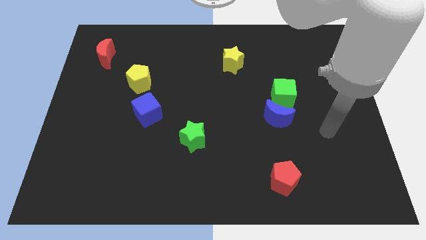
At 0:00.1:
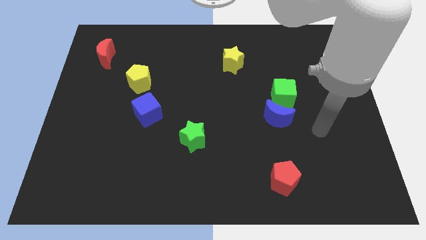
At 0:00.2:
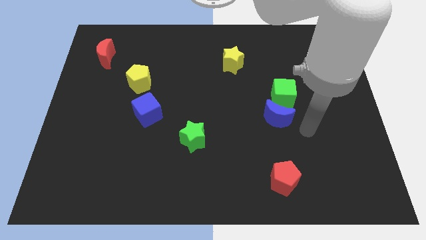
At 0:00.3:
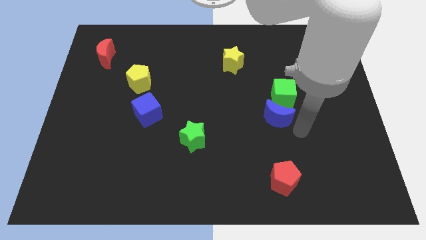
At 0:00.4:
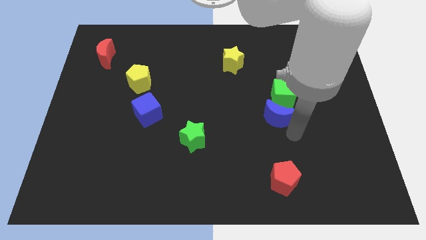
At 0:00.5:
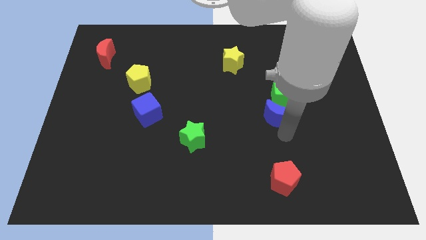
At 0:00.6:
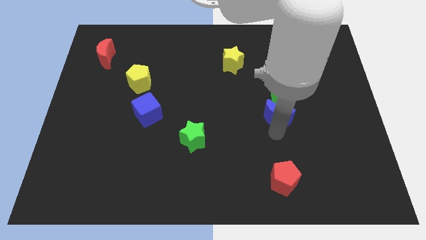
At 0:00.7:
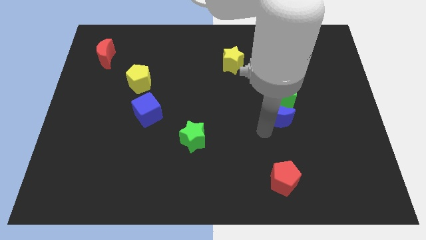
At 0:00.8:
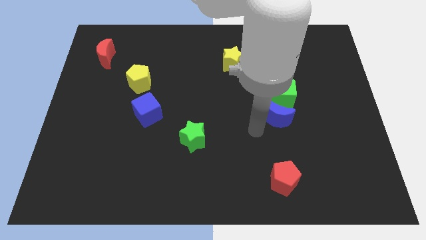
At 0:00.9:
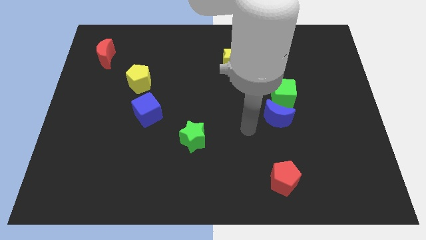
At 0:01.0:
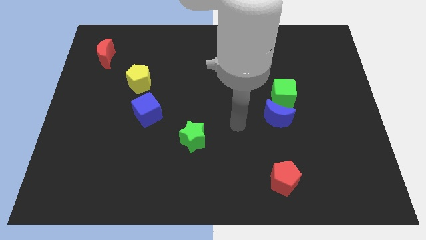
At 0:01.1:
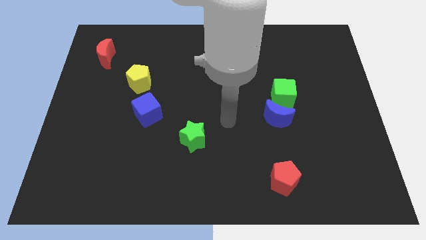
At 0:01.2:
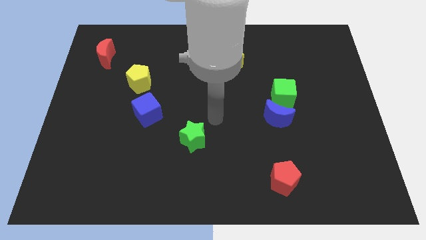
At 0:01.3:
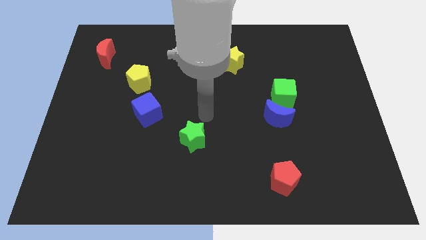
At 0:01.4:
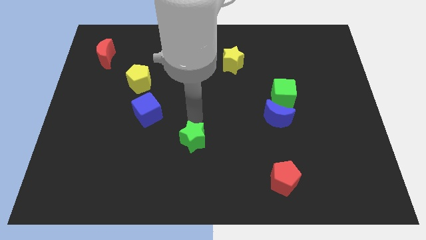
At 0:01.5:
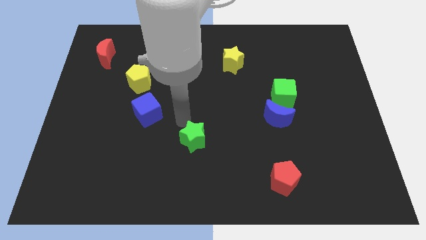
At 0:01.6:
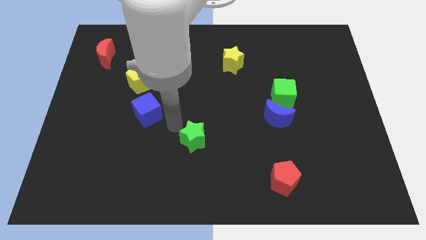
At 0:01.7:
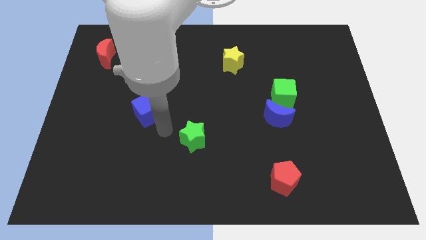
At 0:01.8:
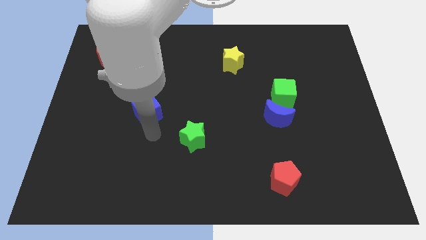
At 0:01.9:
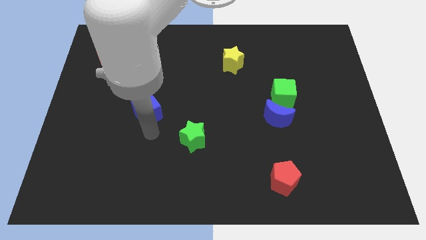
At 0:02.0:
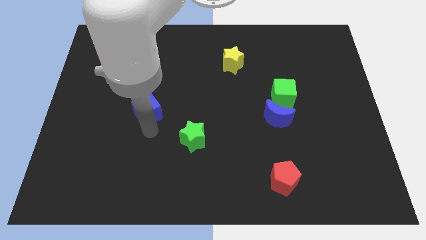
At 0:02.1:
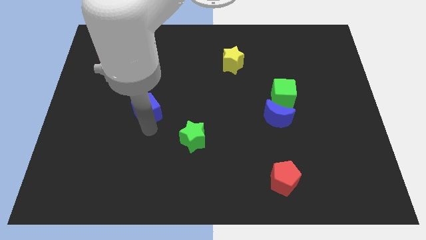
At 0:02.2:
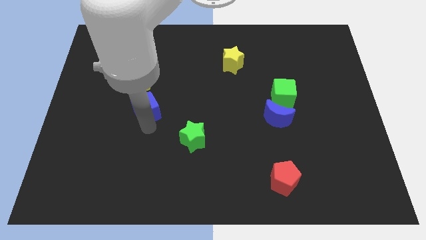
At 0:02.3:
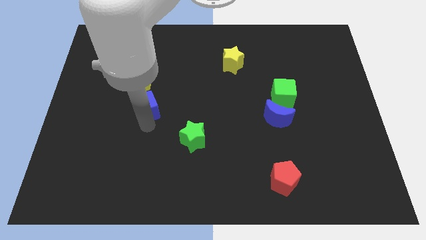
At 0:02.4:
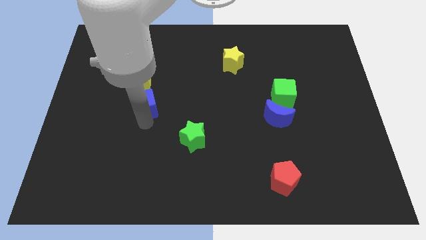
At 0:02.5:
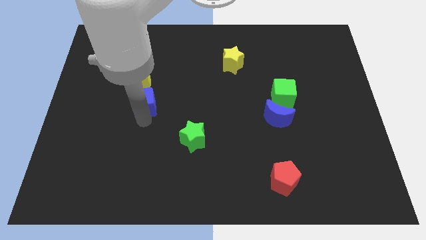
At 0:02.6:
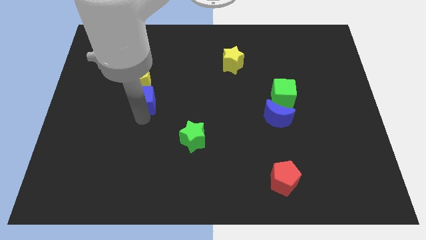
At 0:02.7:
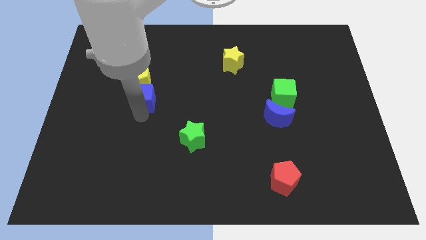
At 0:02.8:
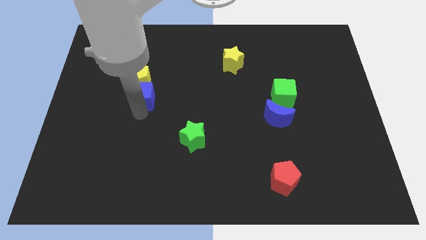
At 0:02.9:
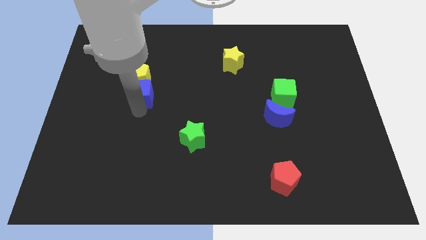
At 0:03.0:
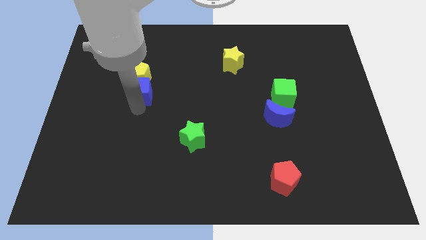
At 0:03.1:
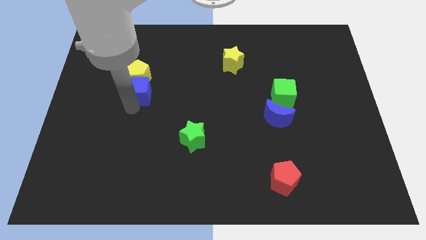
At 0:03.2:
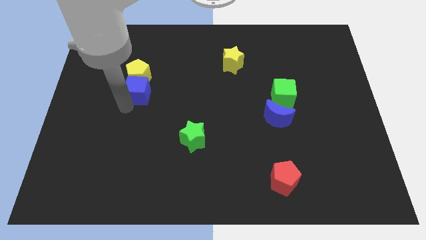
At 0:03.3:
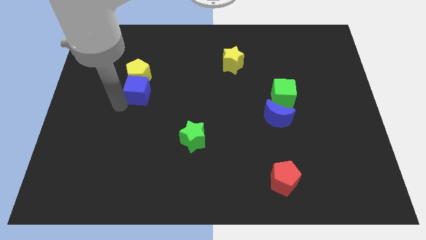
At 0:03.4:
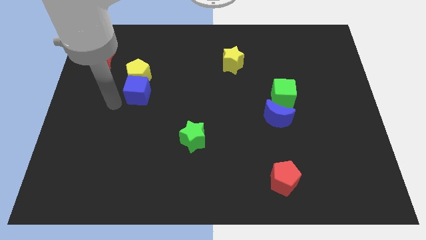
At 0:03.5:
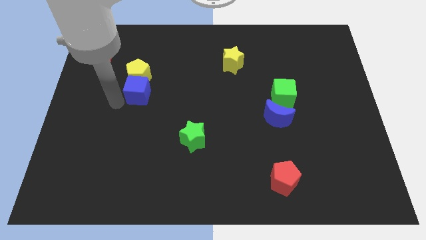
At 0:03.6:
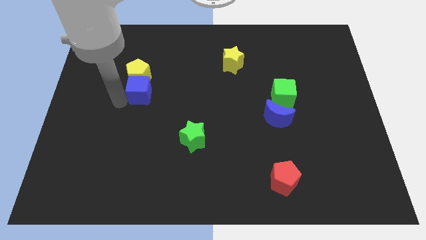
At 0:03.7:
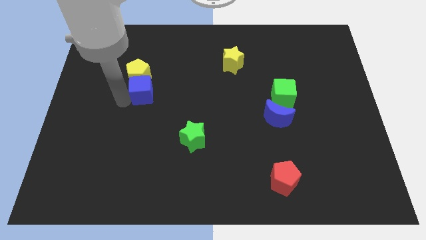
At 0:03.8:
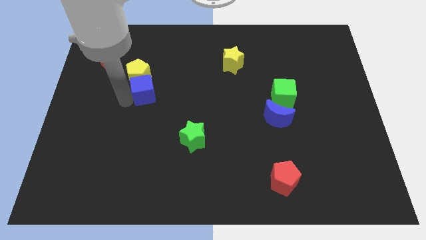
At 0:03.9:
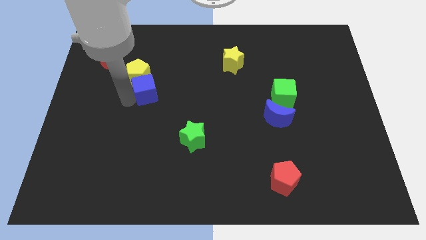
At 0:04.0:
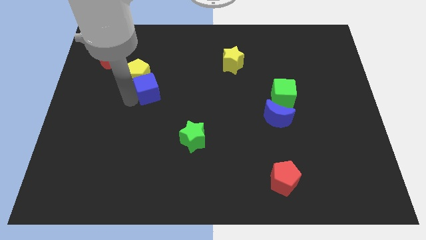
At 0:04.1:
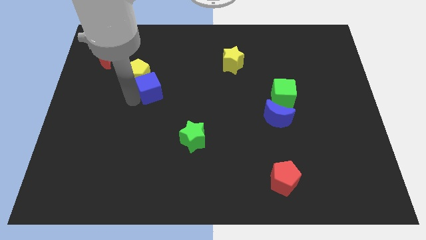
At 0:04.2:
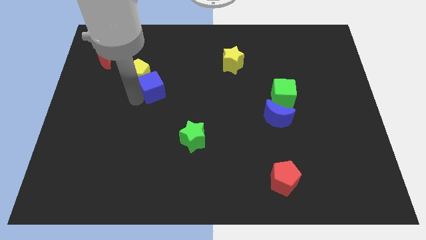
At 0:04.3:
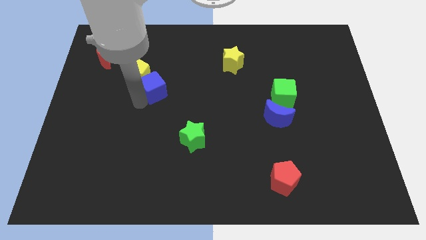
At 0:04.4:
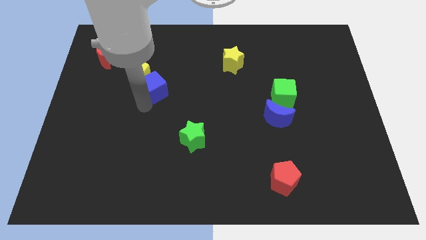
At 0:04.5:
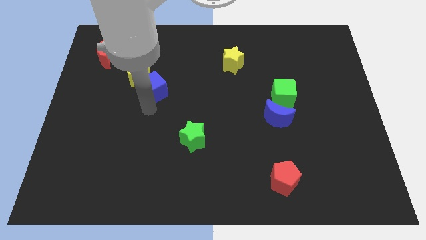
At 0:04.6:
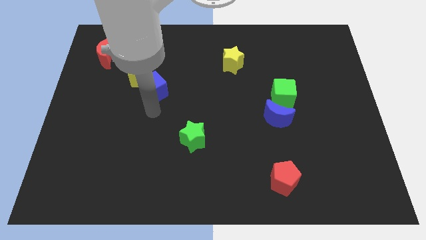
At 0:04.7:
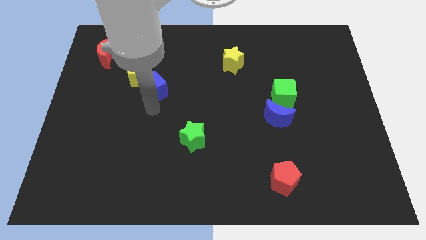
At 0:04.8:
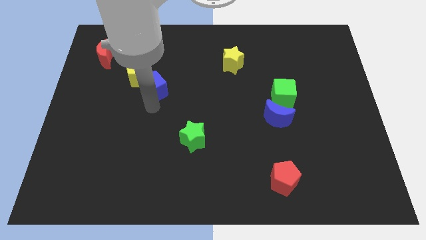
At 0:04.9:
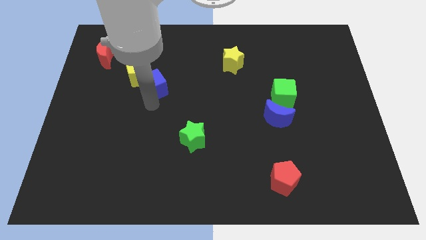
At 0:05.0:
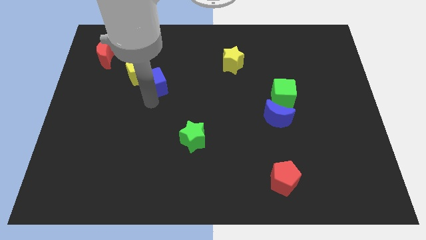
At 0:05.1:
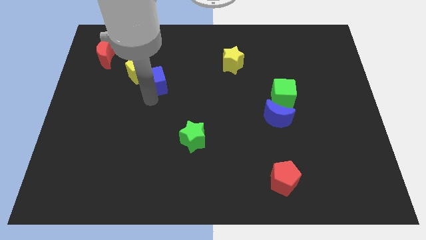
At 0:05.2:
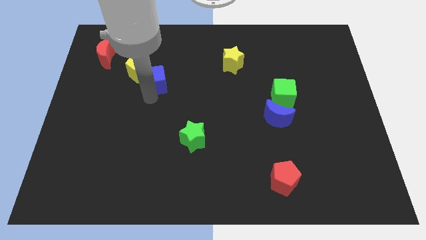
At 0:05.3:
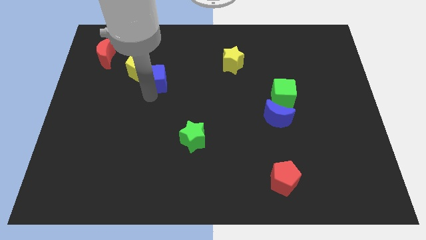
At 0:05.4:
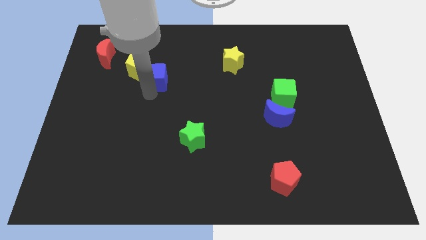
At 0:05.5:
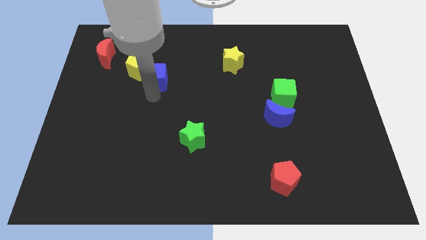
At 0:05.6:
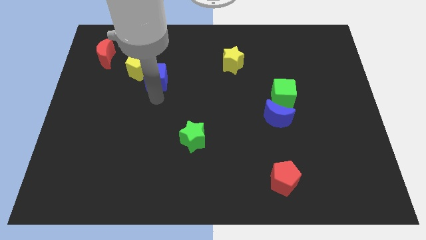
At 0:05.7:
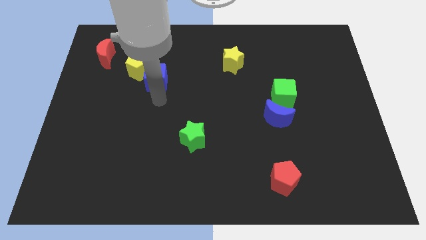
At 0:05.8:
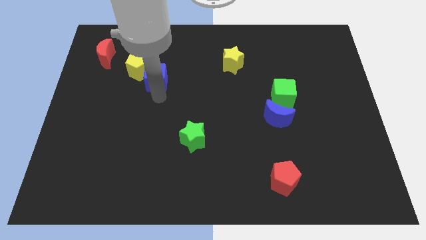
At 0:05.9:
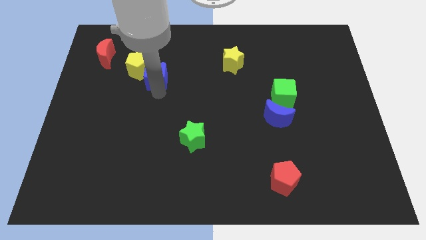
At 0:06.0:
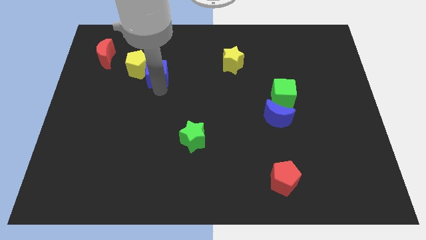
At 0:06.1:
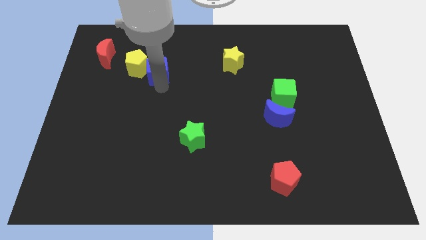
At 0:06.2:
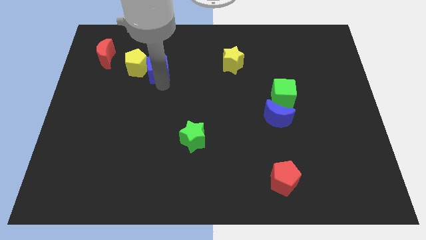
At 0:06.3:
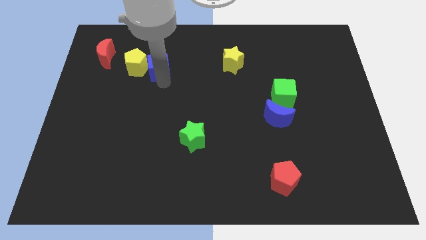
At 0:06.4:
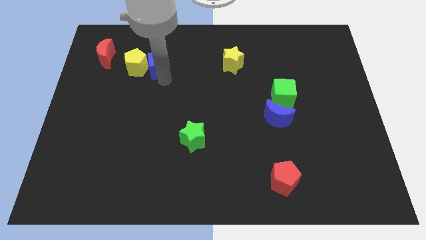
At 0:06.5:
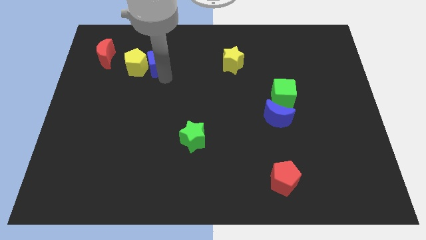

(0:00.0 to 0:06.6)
push the blue cube just right of the red moon

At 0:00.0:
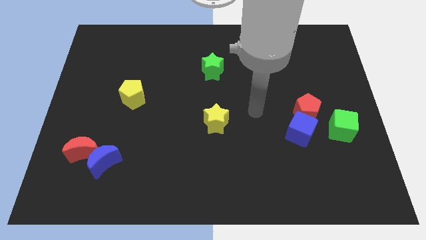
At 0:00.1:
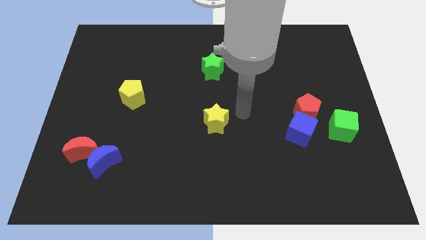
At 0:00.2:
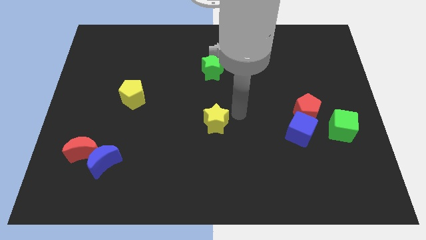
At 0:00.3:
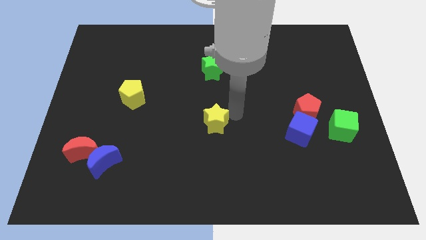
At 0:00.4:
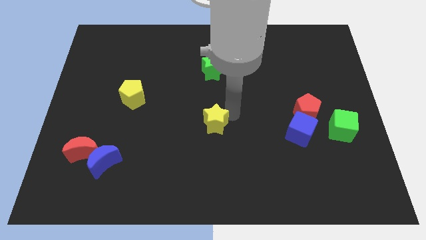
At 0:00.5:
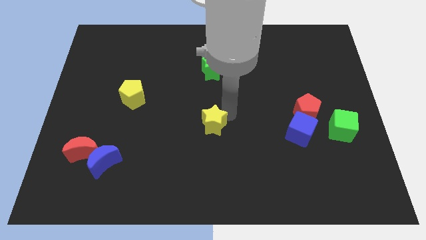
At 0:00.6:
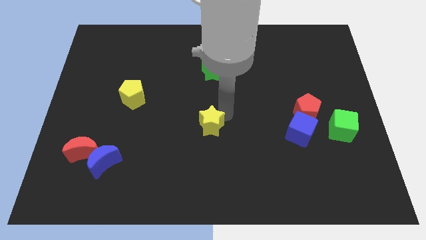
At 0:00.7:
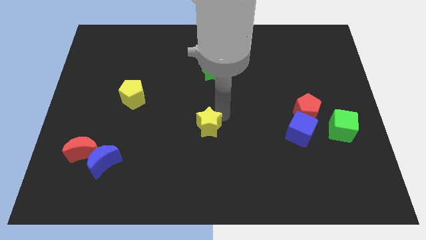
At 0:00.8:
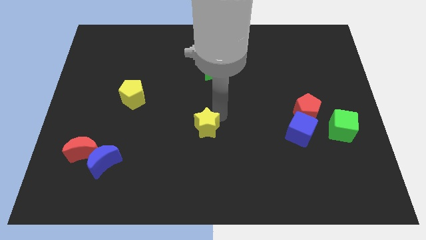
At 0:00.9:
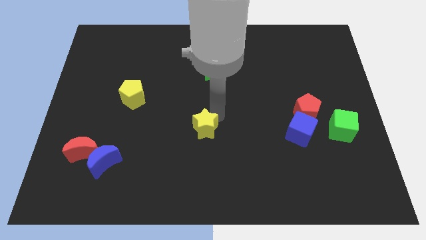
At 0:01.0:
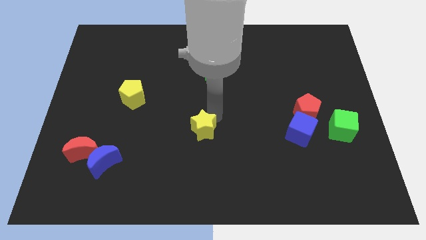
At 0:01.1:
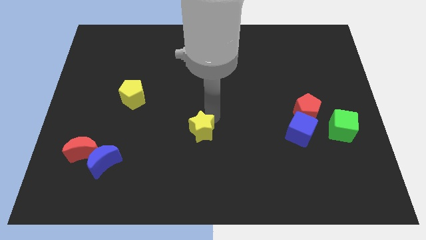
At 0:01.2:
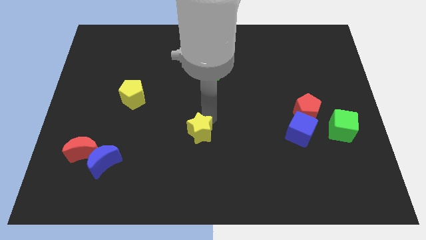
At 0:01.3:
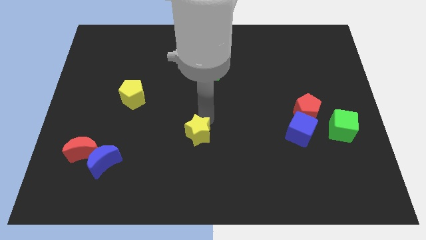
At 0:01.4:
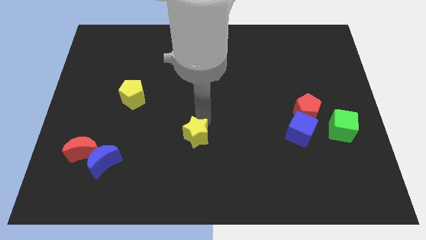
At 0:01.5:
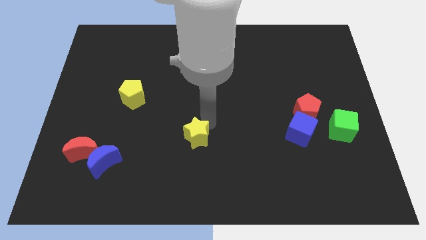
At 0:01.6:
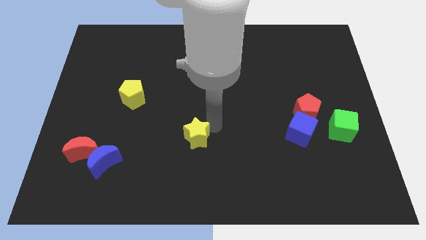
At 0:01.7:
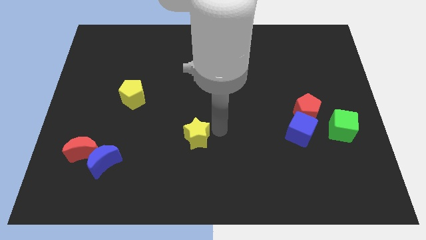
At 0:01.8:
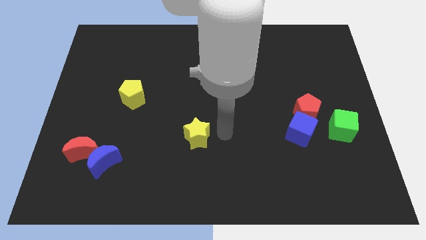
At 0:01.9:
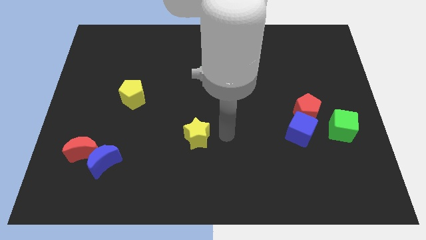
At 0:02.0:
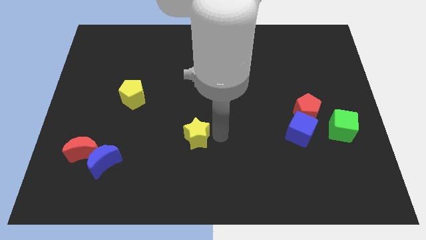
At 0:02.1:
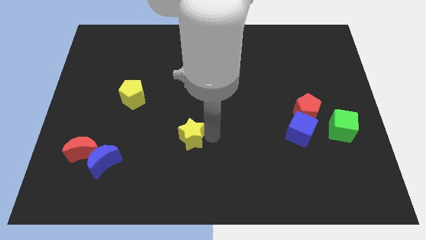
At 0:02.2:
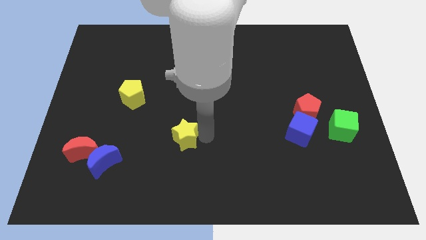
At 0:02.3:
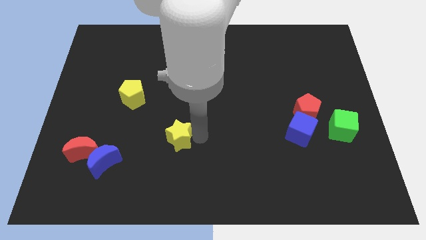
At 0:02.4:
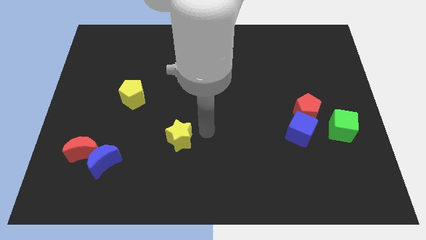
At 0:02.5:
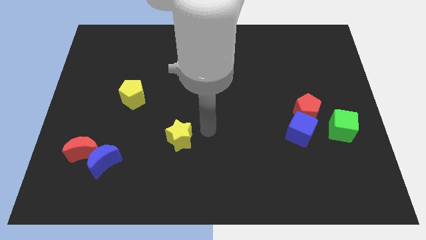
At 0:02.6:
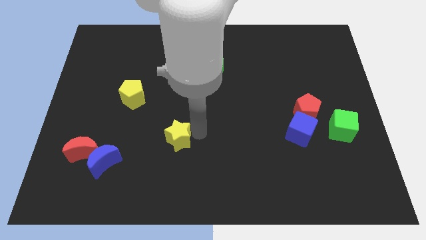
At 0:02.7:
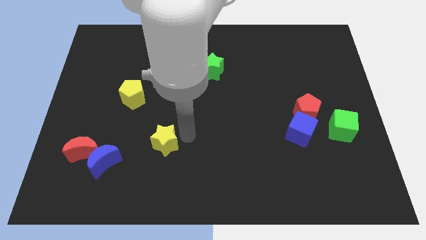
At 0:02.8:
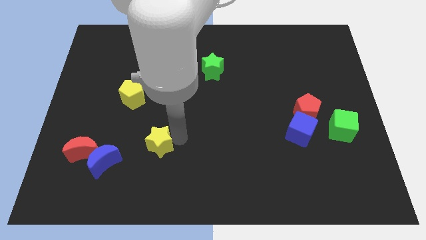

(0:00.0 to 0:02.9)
move the yellow star right of the red moon
